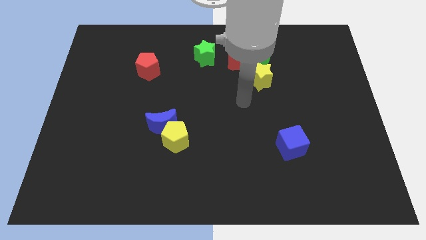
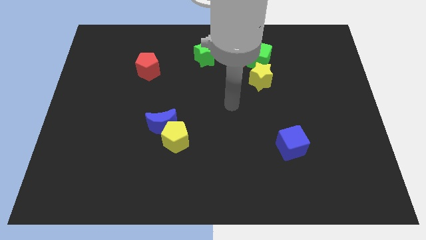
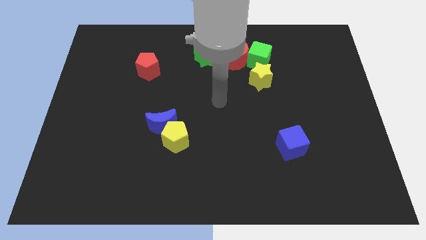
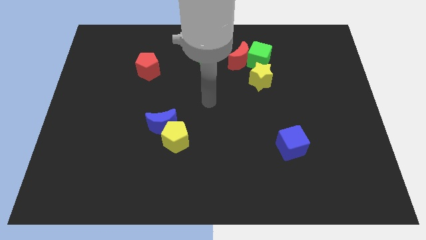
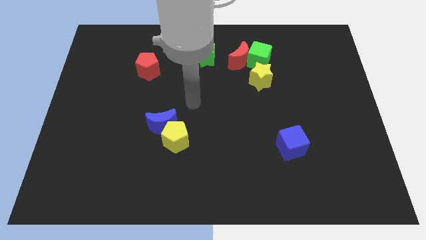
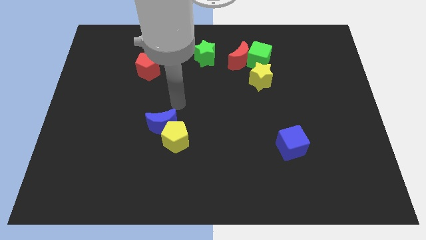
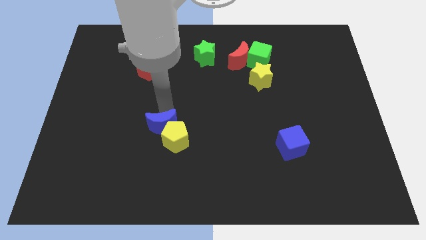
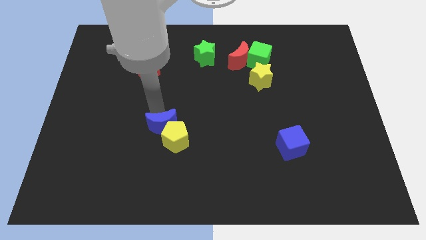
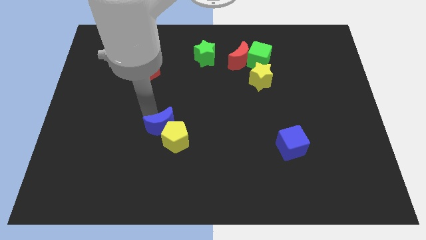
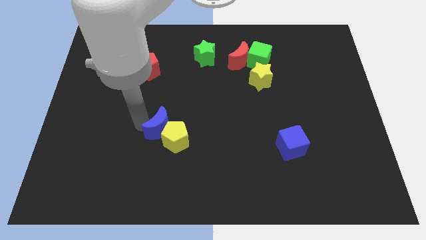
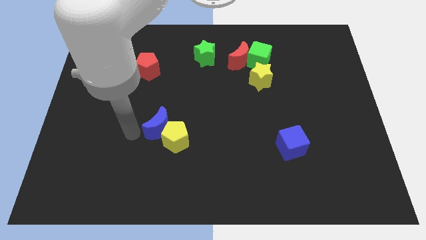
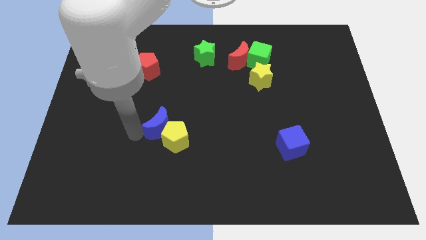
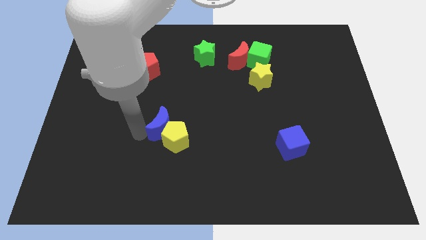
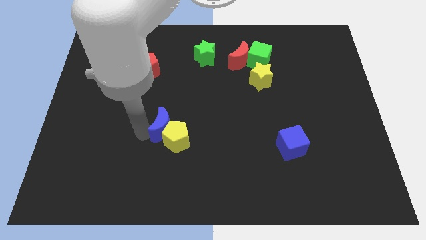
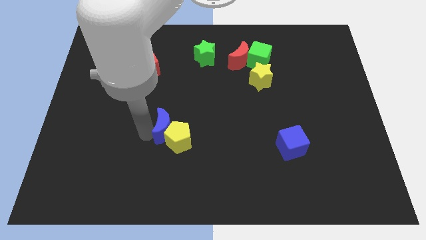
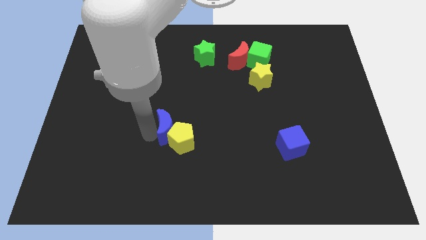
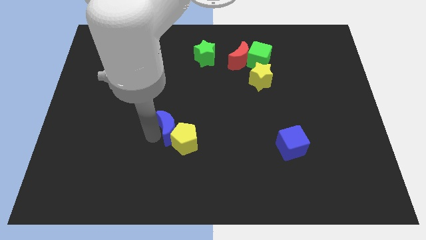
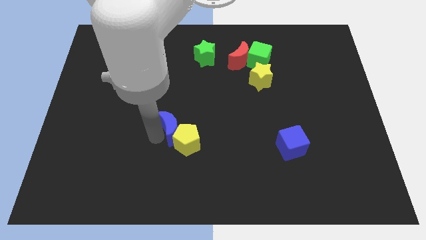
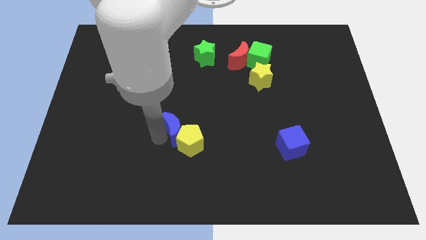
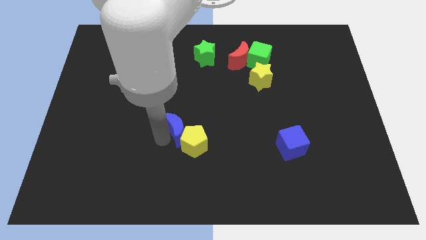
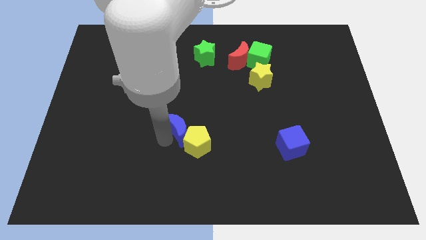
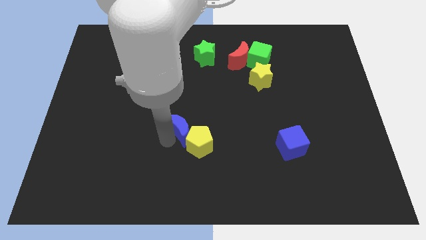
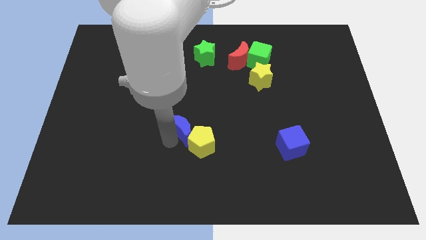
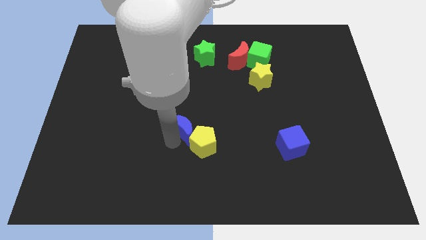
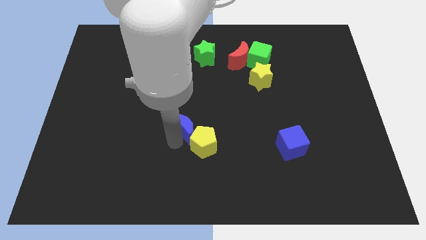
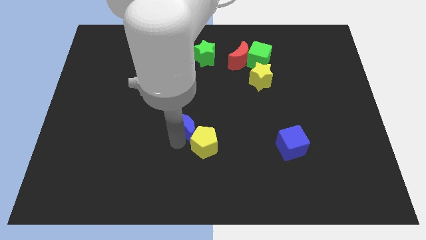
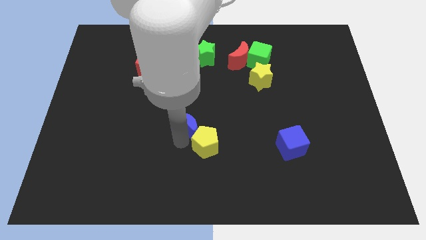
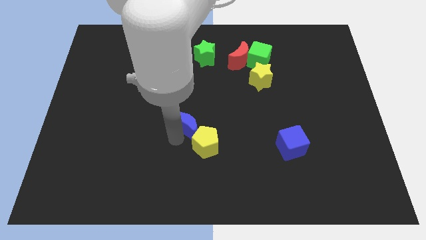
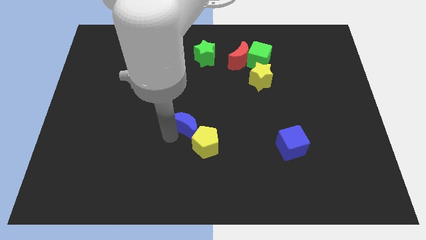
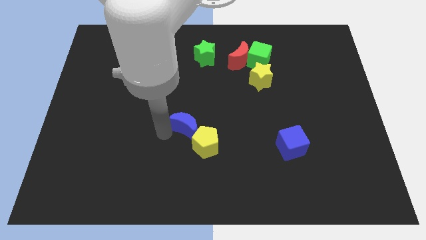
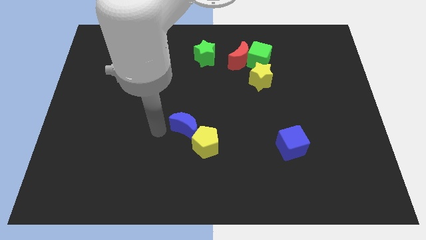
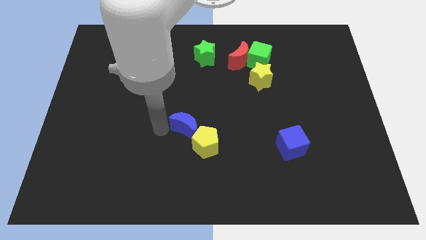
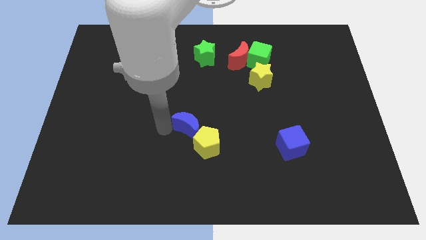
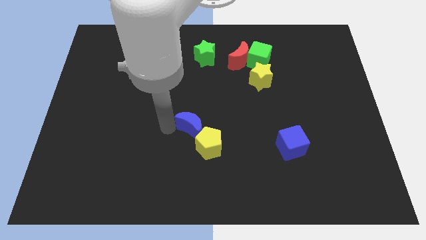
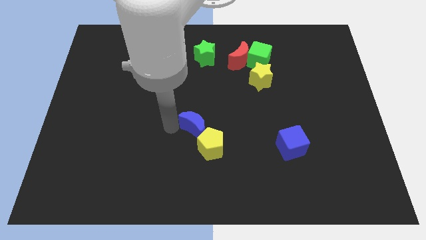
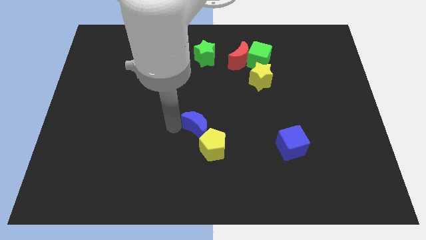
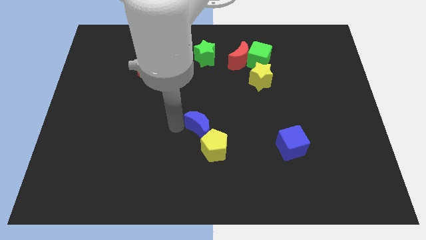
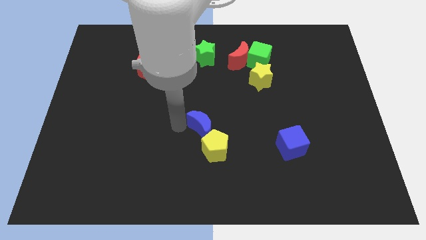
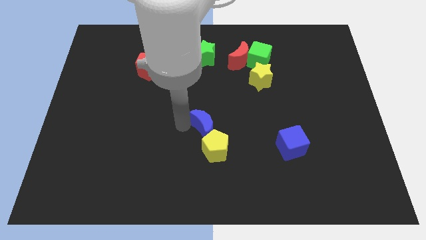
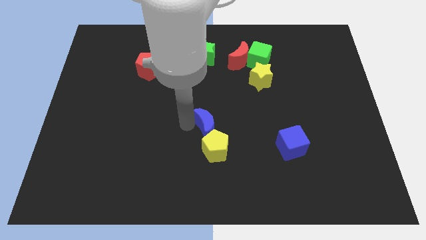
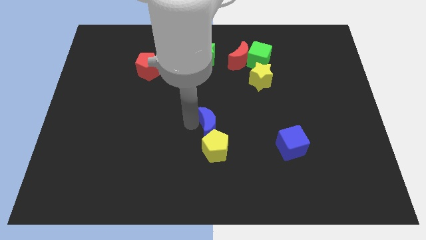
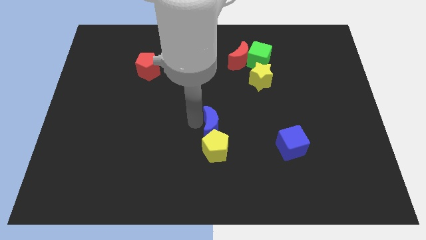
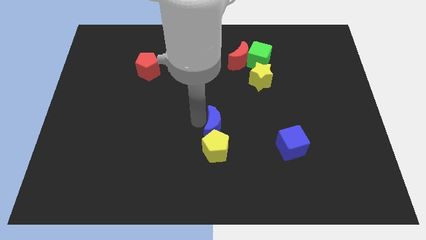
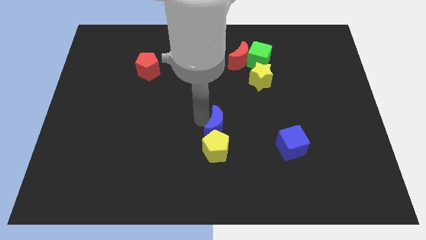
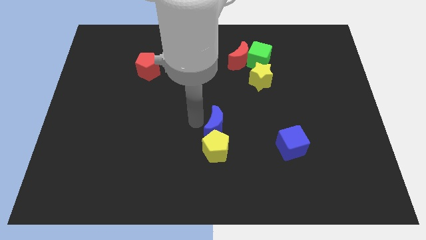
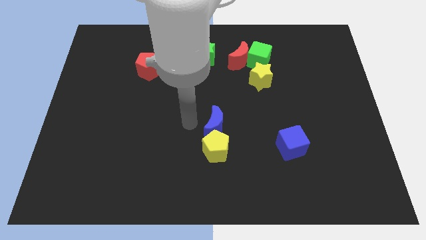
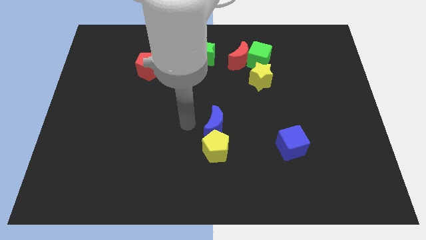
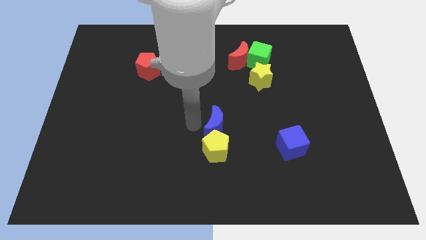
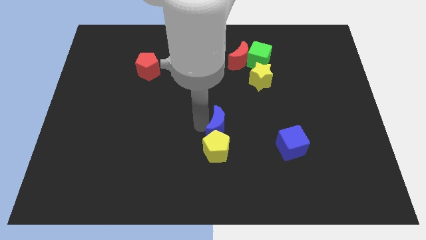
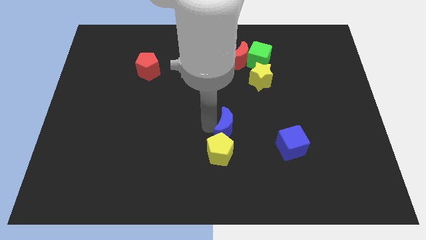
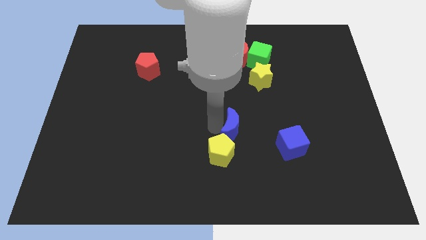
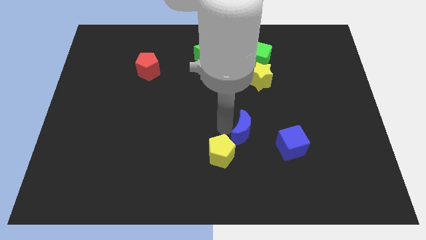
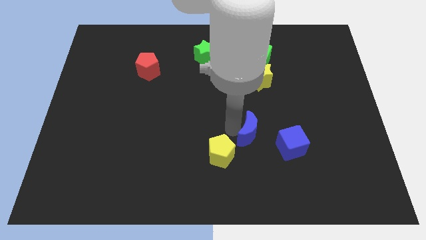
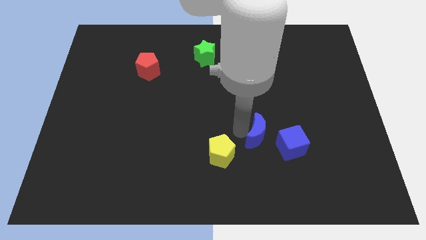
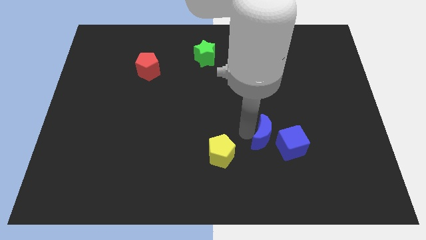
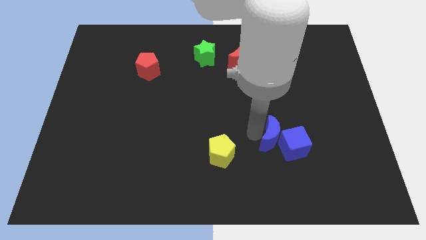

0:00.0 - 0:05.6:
slide the blue moon to the blue cube
